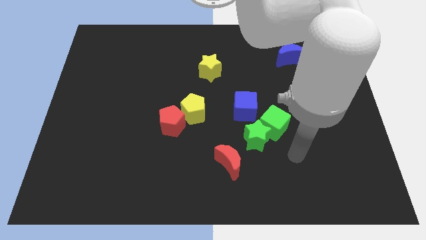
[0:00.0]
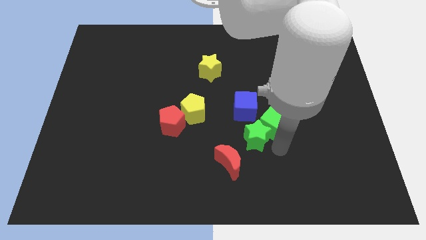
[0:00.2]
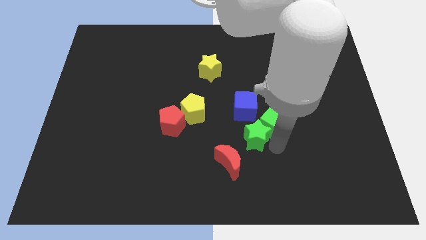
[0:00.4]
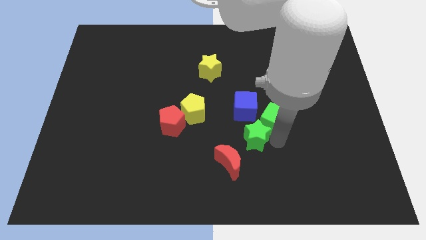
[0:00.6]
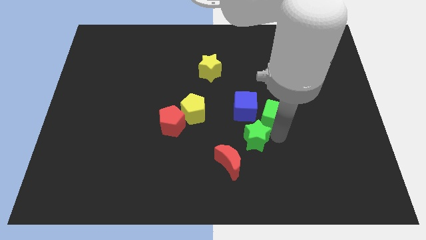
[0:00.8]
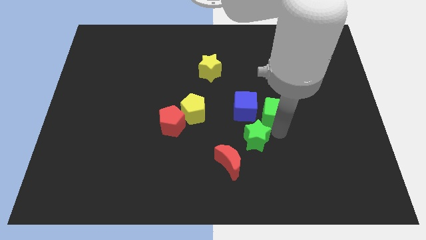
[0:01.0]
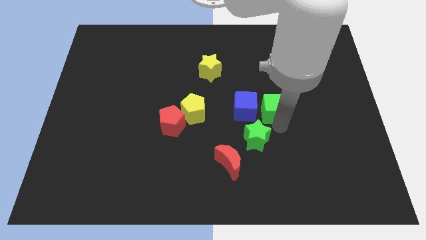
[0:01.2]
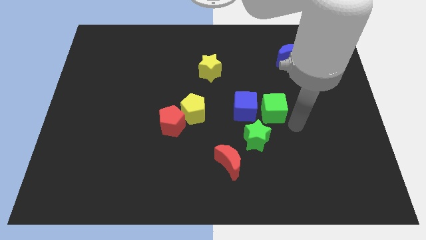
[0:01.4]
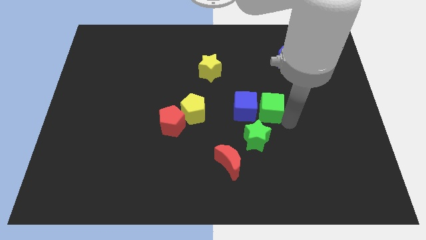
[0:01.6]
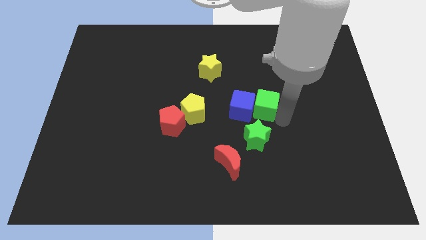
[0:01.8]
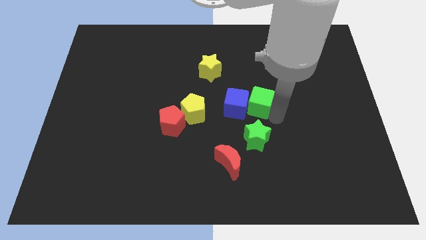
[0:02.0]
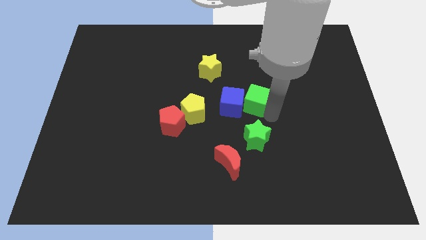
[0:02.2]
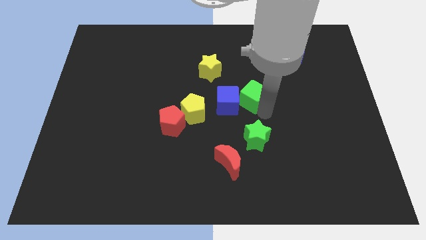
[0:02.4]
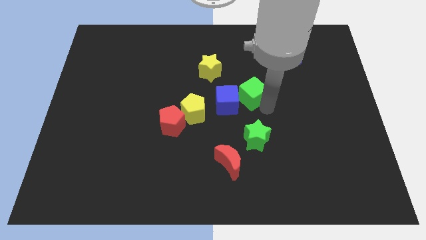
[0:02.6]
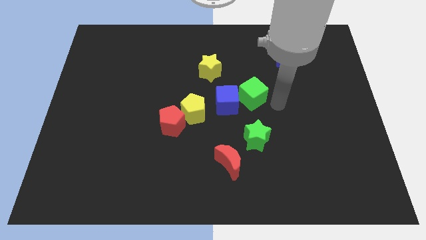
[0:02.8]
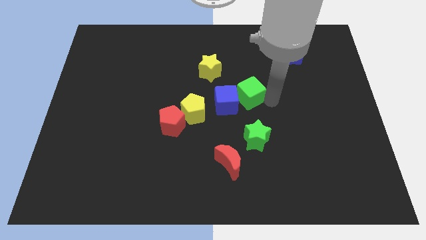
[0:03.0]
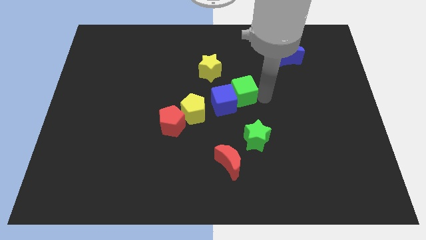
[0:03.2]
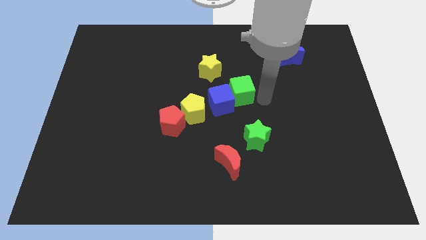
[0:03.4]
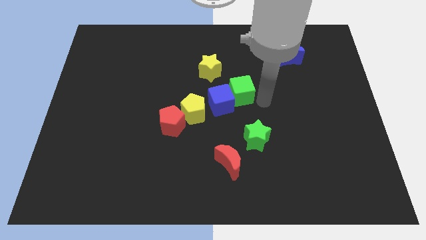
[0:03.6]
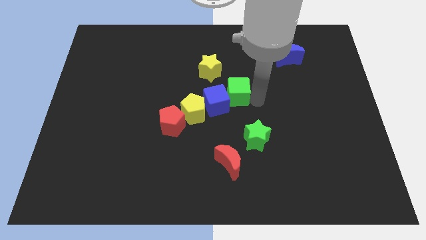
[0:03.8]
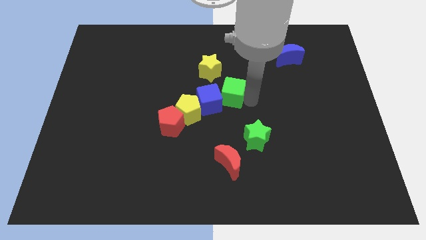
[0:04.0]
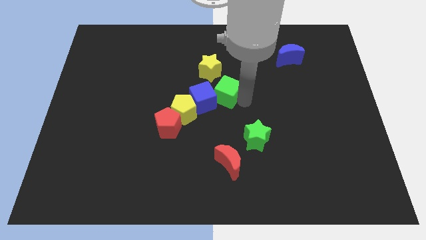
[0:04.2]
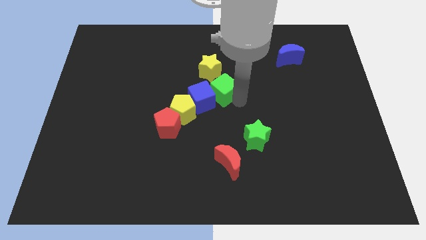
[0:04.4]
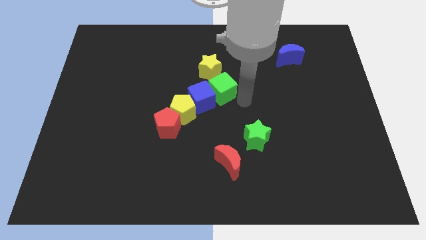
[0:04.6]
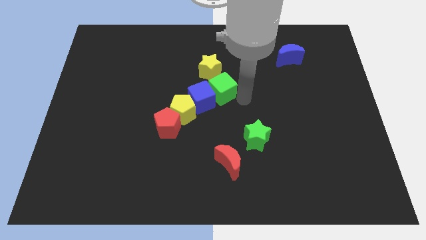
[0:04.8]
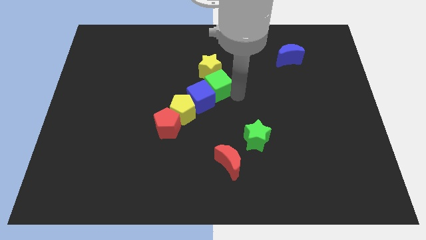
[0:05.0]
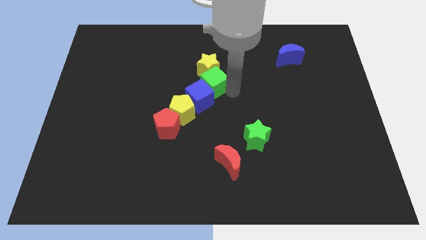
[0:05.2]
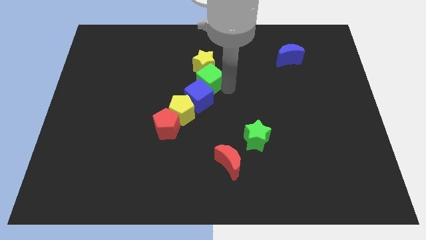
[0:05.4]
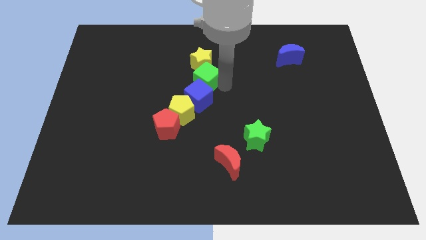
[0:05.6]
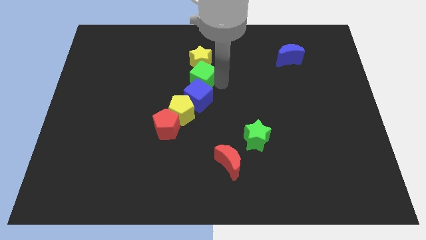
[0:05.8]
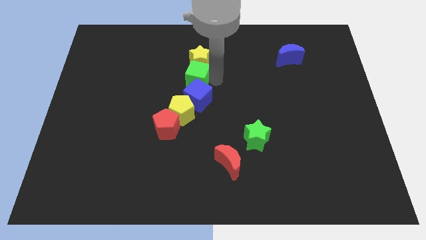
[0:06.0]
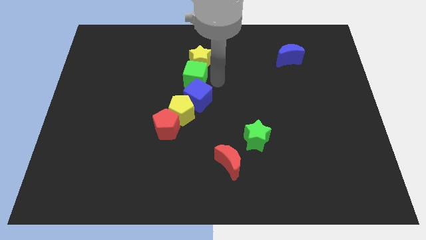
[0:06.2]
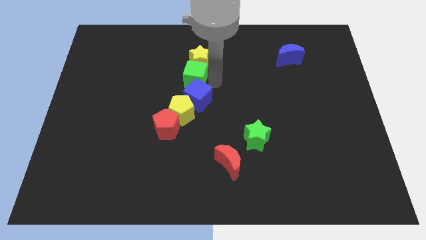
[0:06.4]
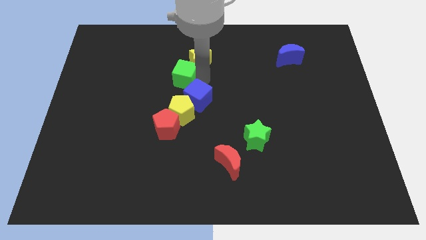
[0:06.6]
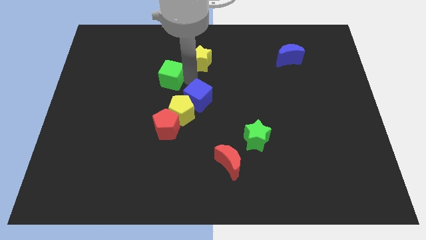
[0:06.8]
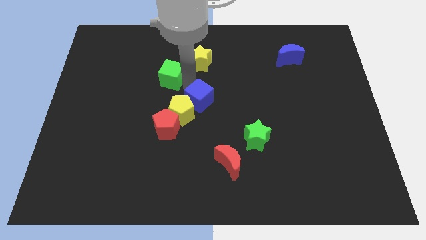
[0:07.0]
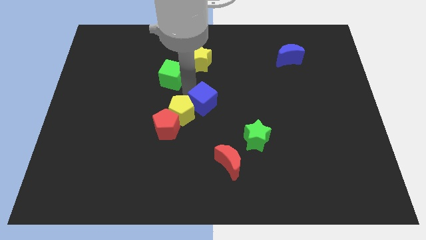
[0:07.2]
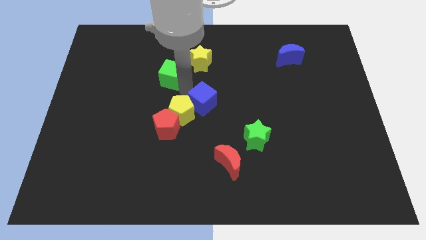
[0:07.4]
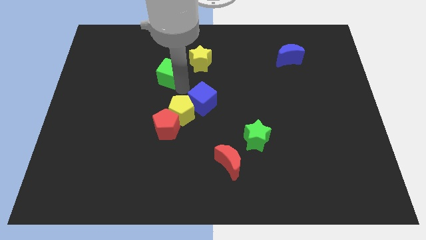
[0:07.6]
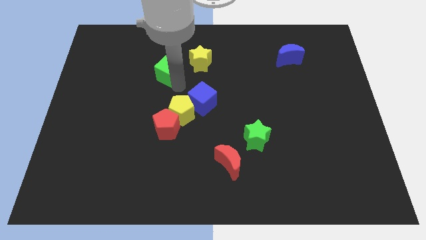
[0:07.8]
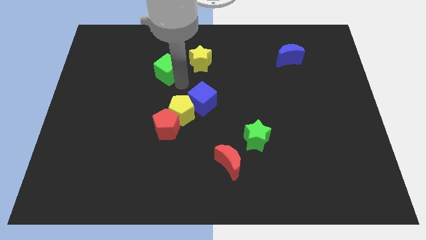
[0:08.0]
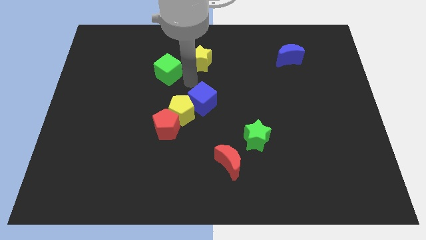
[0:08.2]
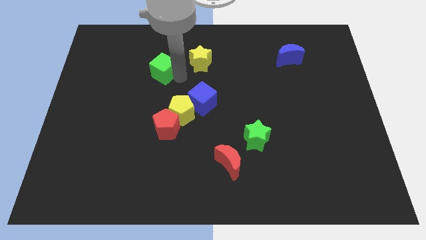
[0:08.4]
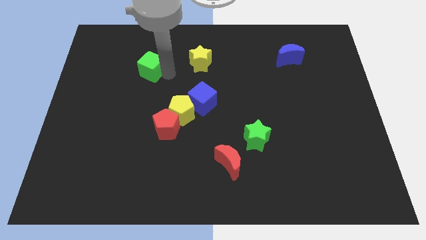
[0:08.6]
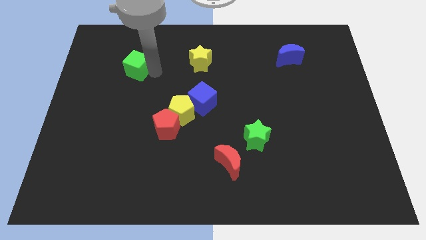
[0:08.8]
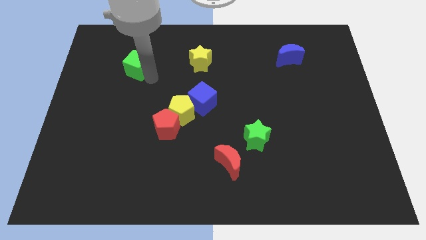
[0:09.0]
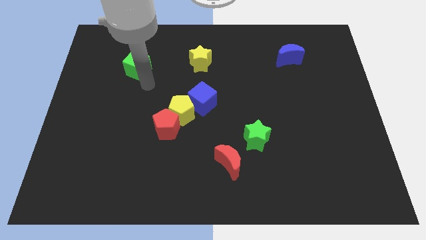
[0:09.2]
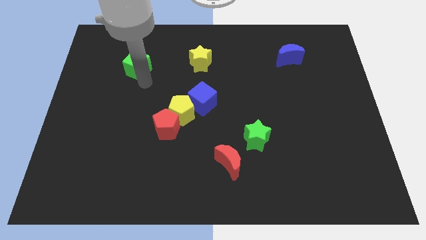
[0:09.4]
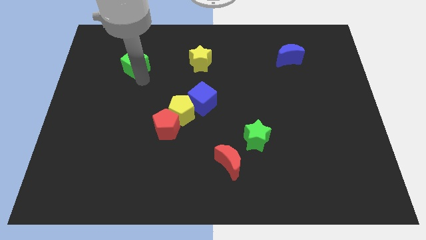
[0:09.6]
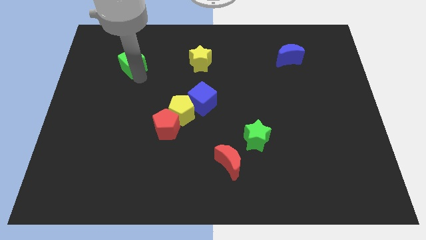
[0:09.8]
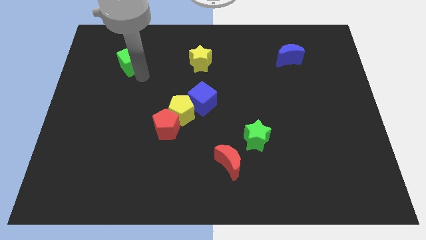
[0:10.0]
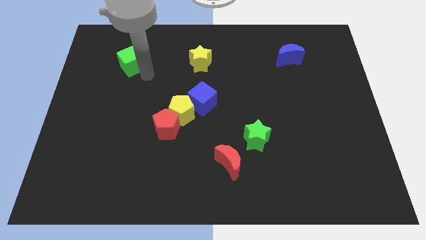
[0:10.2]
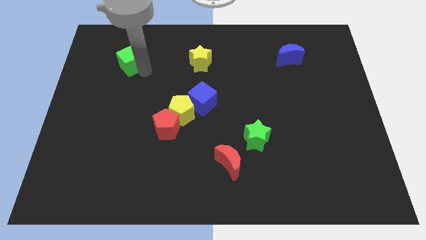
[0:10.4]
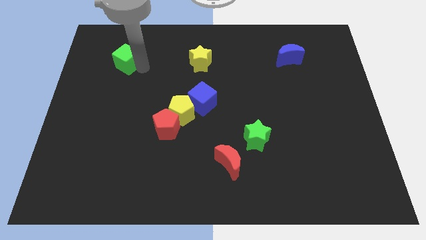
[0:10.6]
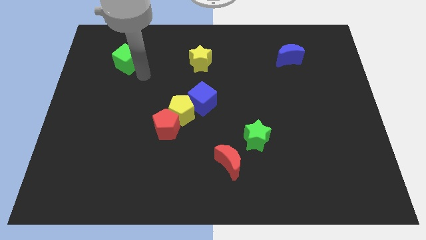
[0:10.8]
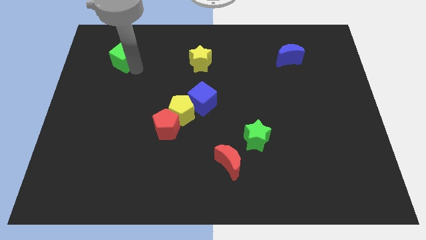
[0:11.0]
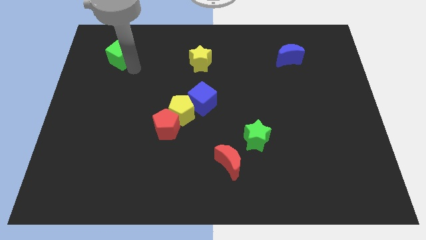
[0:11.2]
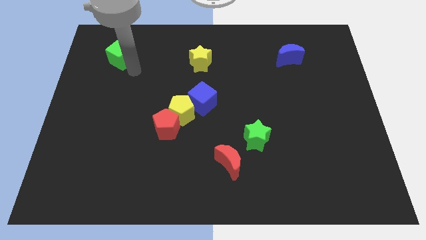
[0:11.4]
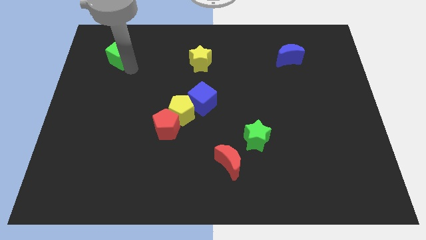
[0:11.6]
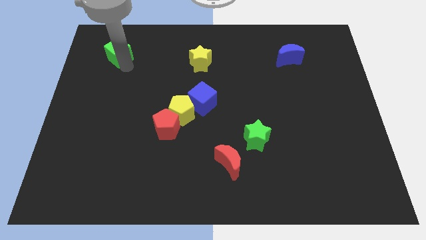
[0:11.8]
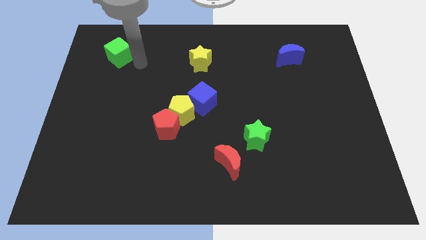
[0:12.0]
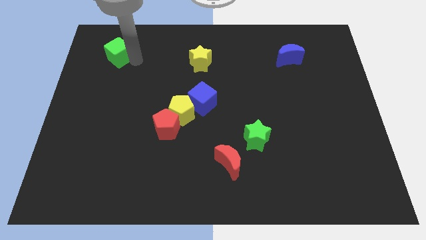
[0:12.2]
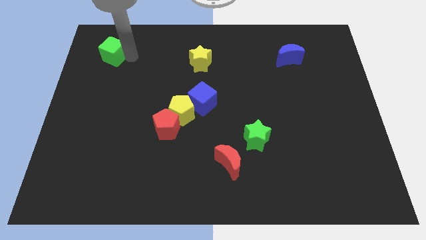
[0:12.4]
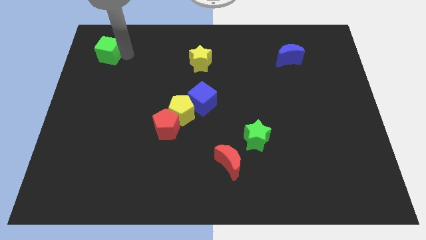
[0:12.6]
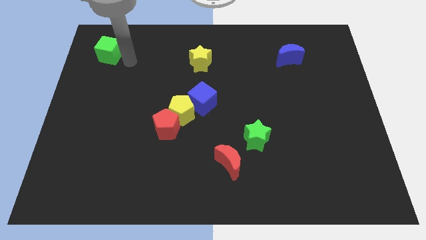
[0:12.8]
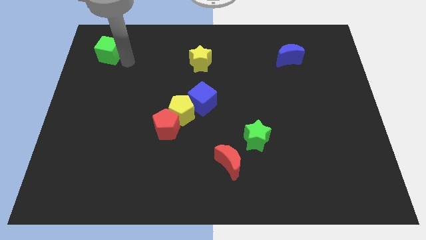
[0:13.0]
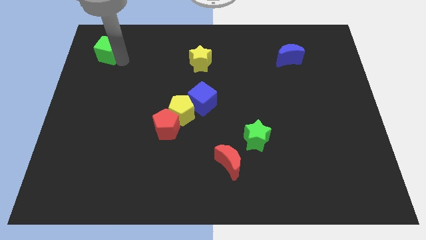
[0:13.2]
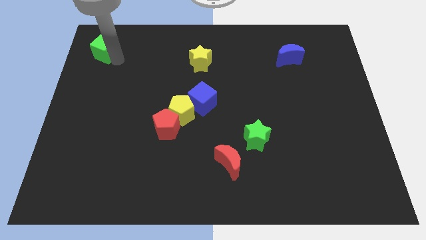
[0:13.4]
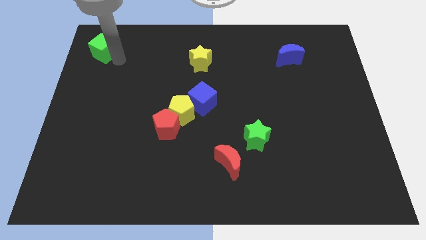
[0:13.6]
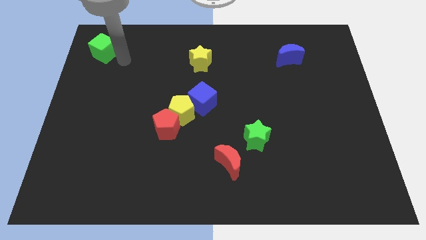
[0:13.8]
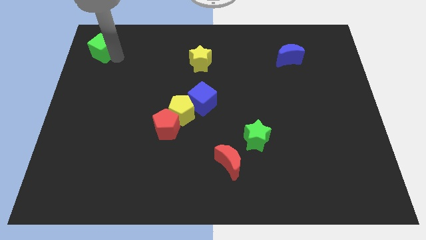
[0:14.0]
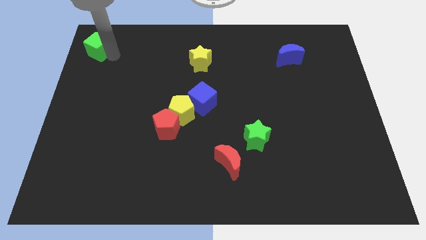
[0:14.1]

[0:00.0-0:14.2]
push the green cube to the top left corner
